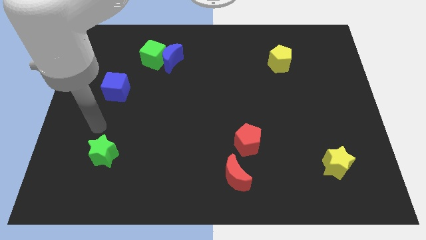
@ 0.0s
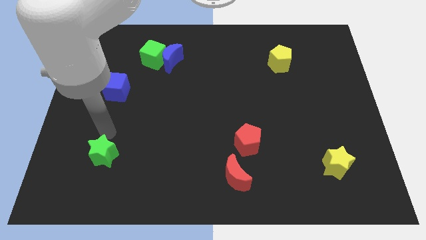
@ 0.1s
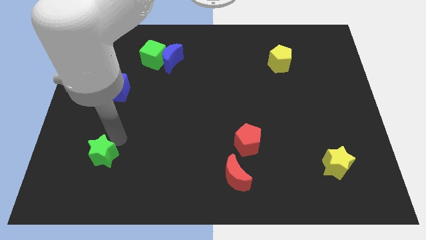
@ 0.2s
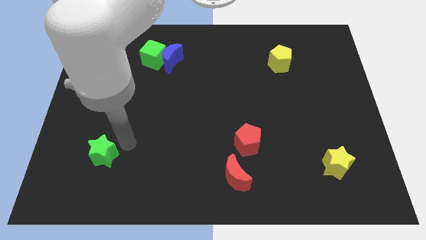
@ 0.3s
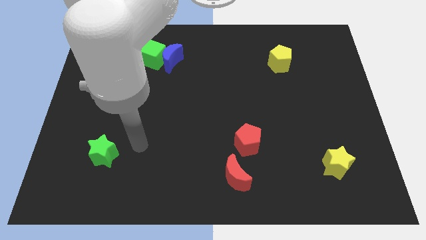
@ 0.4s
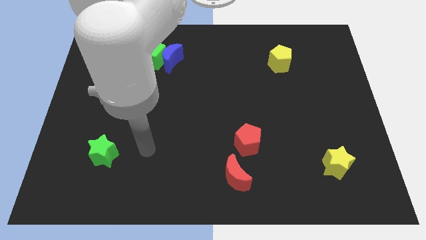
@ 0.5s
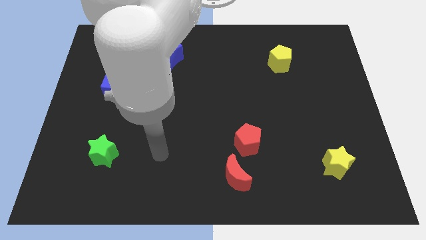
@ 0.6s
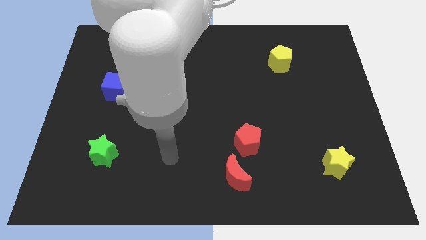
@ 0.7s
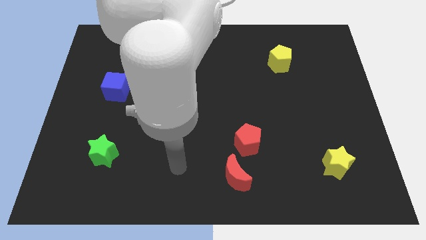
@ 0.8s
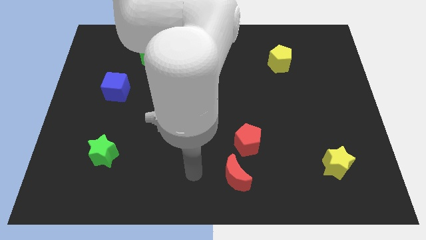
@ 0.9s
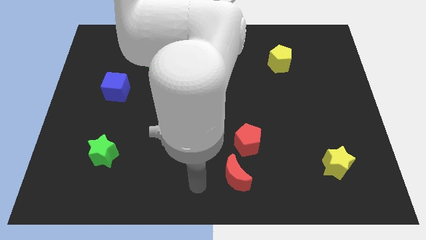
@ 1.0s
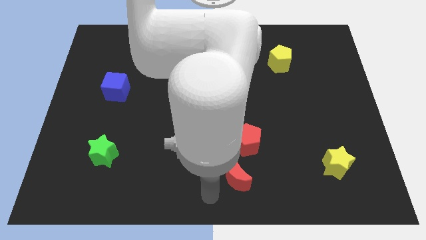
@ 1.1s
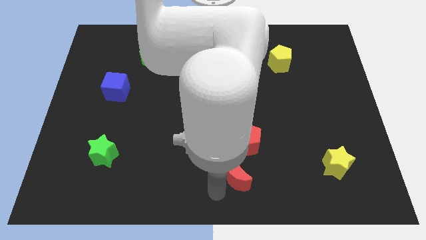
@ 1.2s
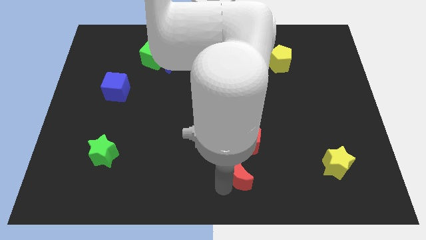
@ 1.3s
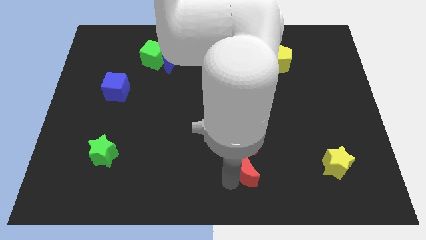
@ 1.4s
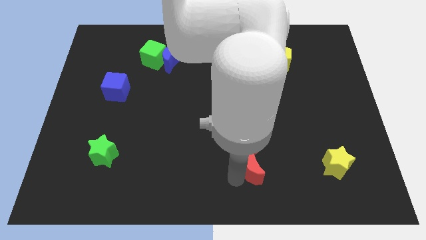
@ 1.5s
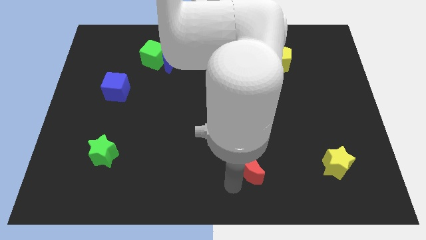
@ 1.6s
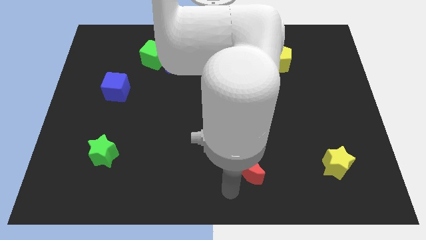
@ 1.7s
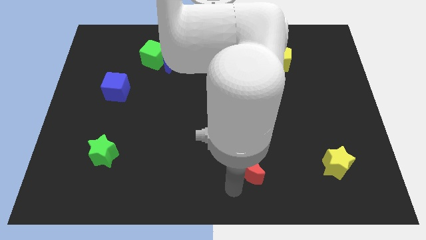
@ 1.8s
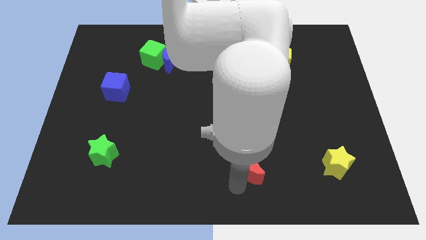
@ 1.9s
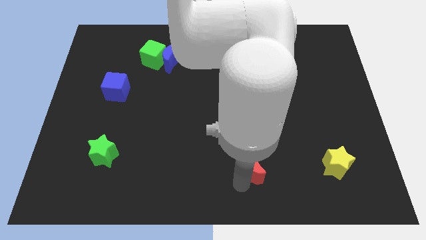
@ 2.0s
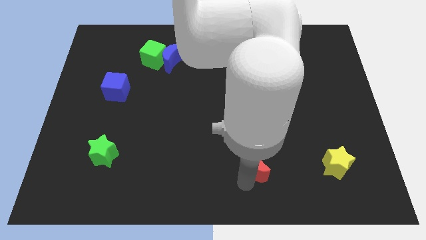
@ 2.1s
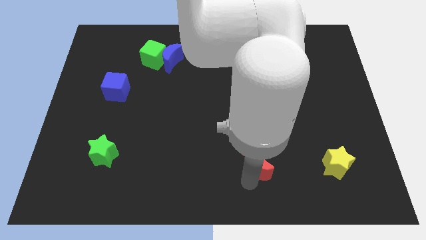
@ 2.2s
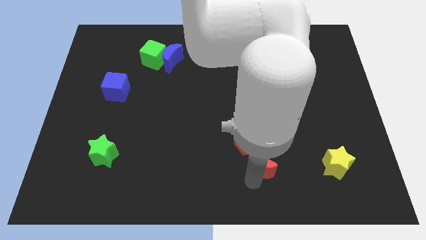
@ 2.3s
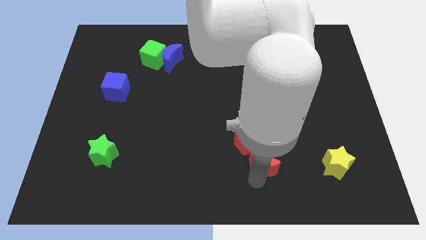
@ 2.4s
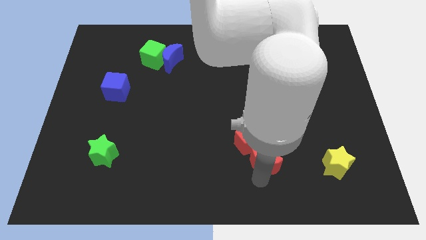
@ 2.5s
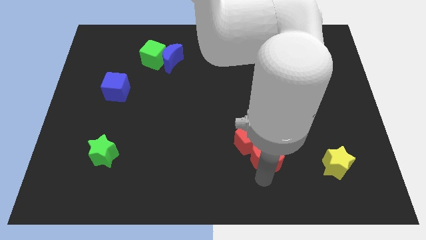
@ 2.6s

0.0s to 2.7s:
move the red moon a little diagonally up and to the right

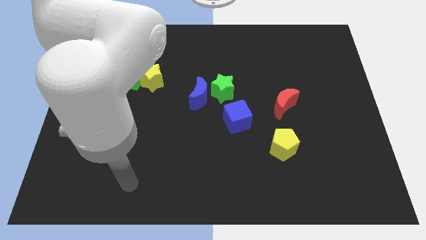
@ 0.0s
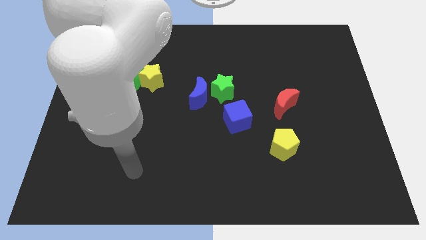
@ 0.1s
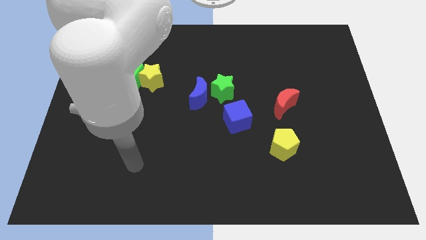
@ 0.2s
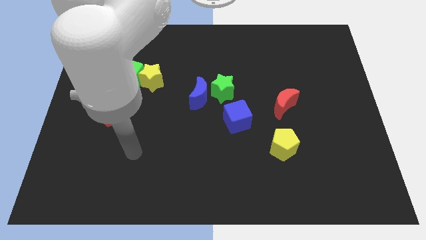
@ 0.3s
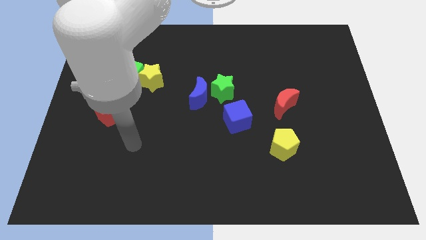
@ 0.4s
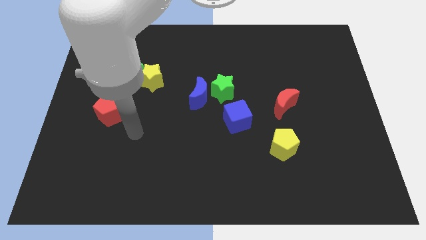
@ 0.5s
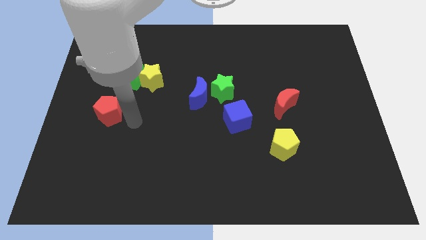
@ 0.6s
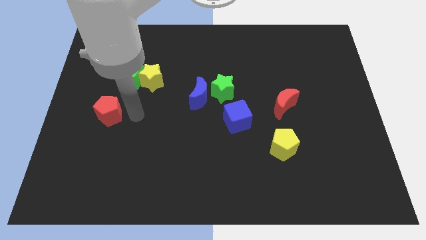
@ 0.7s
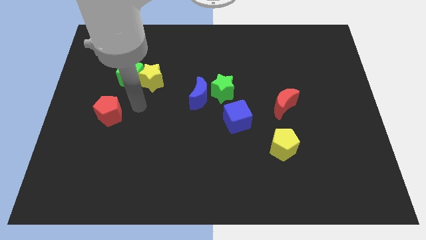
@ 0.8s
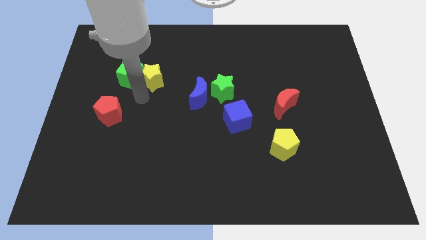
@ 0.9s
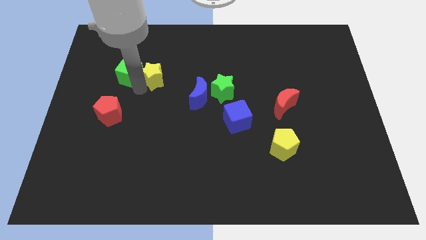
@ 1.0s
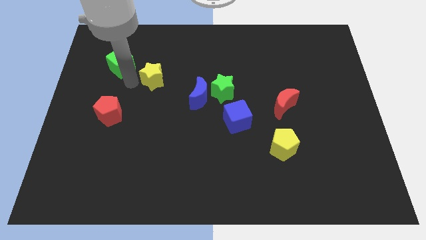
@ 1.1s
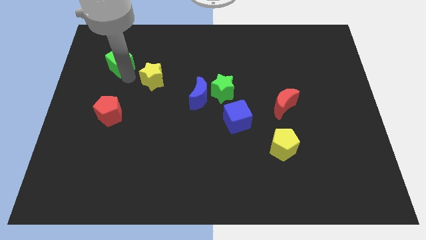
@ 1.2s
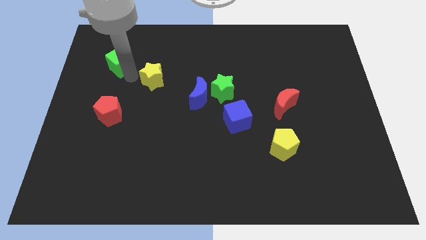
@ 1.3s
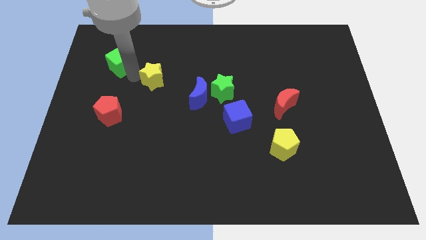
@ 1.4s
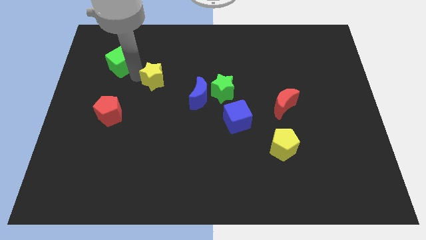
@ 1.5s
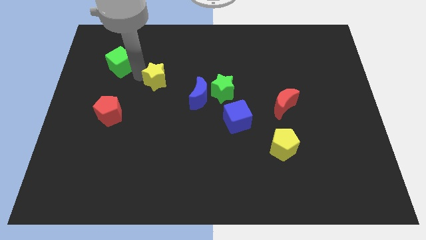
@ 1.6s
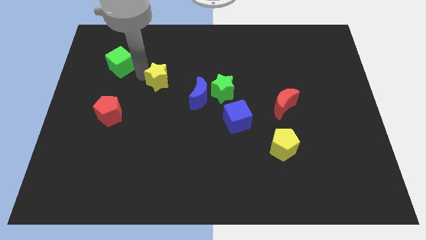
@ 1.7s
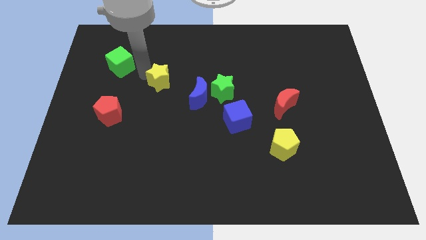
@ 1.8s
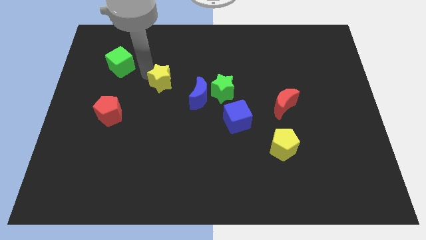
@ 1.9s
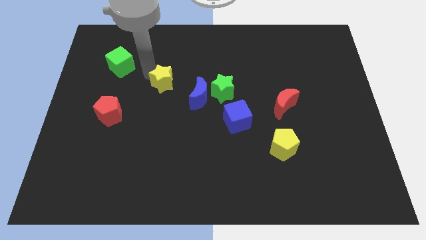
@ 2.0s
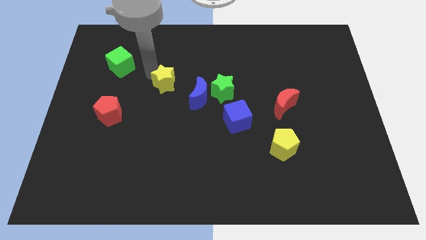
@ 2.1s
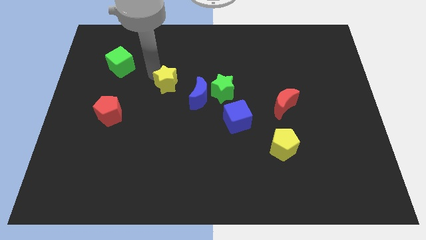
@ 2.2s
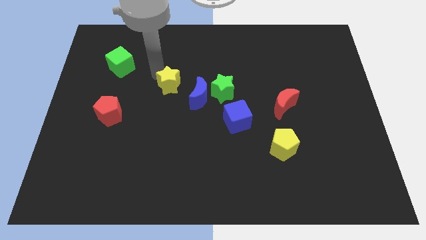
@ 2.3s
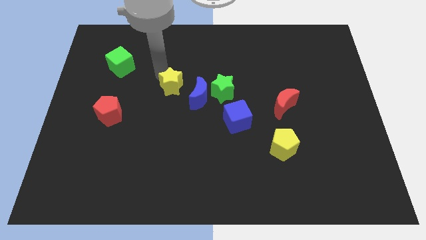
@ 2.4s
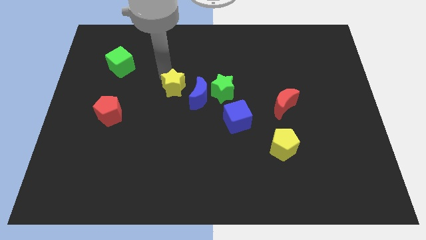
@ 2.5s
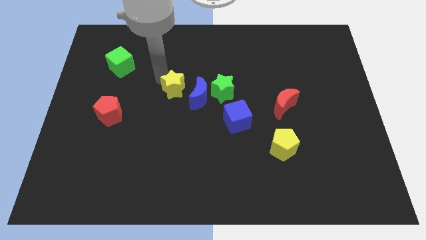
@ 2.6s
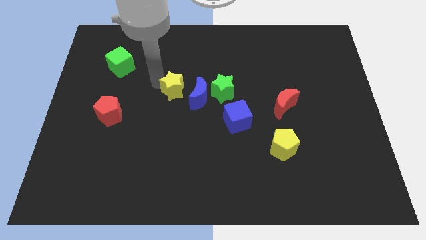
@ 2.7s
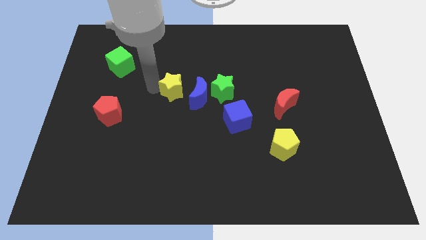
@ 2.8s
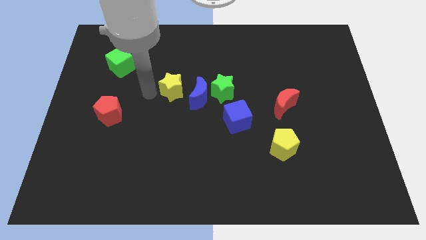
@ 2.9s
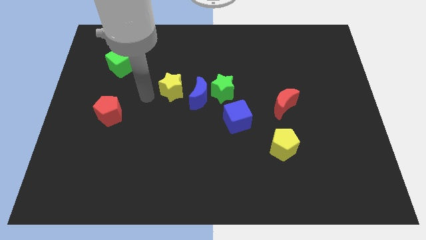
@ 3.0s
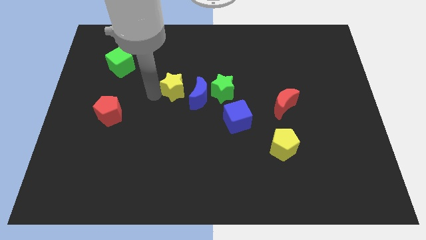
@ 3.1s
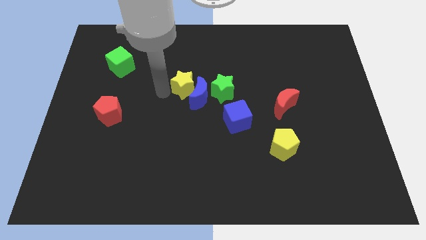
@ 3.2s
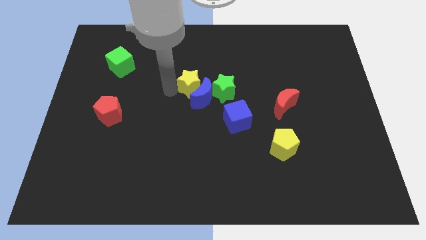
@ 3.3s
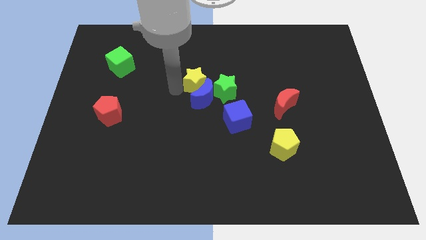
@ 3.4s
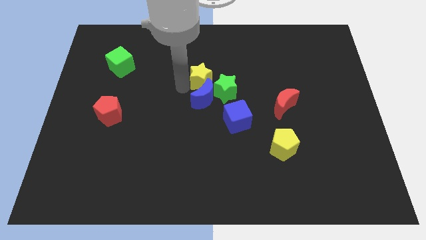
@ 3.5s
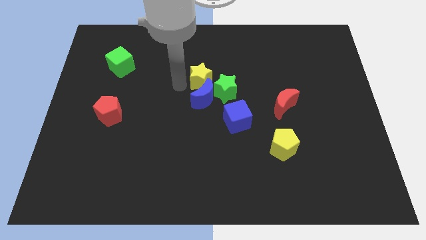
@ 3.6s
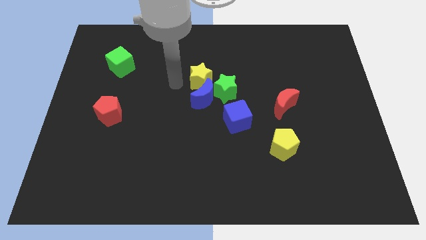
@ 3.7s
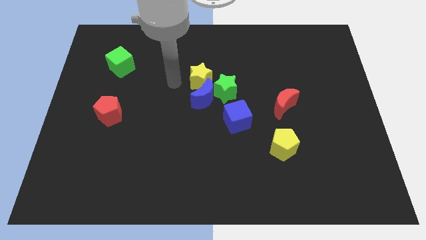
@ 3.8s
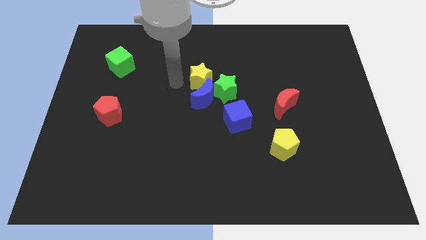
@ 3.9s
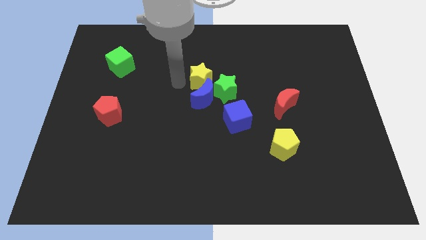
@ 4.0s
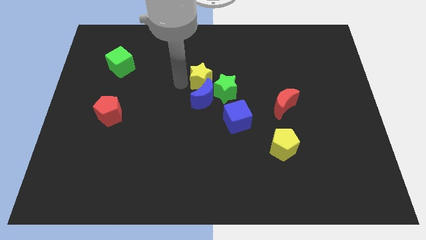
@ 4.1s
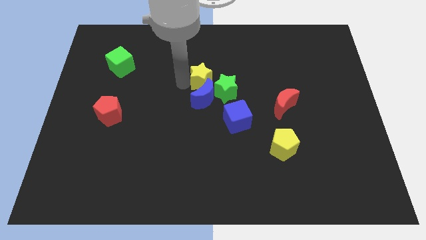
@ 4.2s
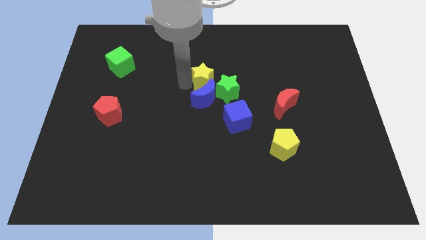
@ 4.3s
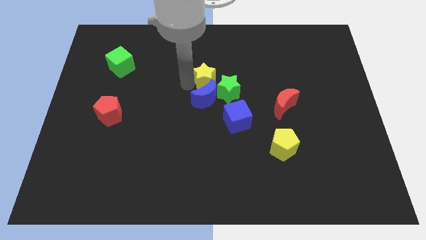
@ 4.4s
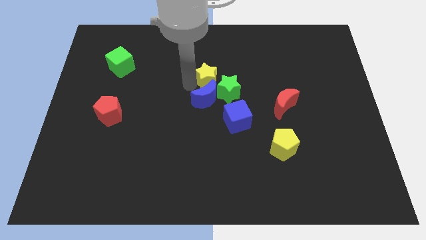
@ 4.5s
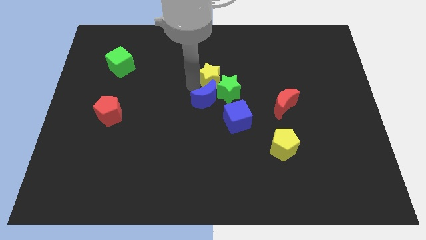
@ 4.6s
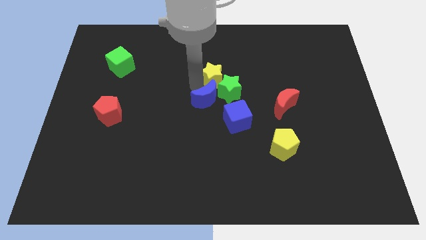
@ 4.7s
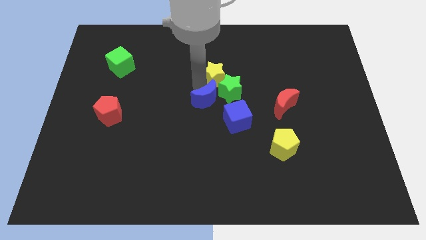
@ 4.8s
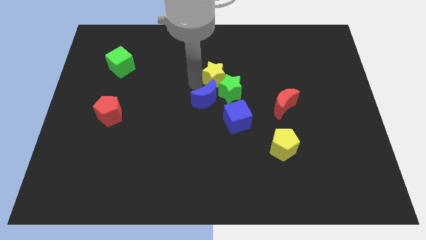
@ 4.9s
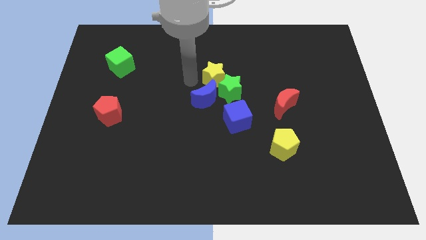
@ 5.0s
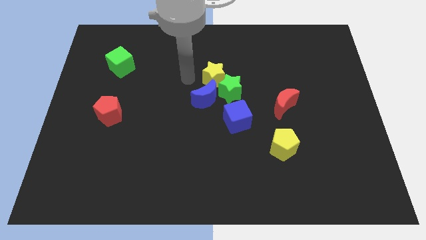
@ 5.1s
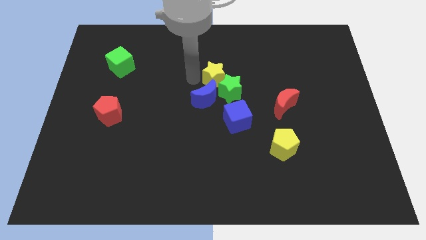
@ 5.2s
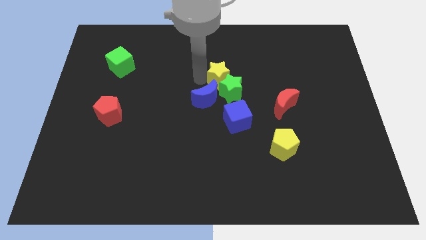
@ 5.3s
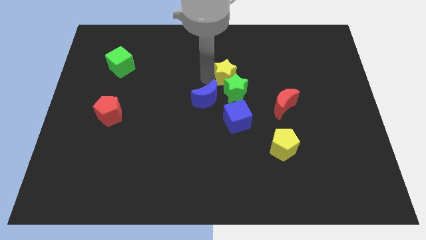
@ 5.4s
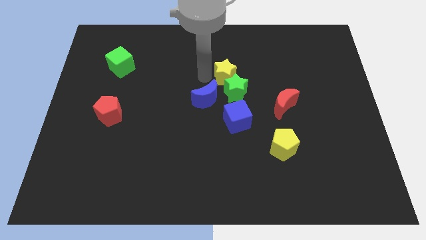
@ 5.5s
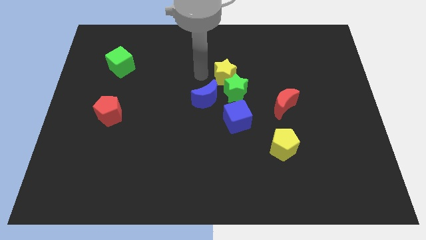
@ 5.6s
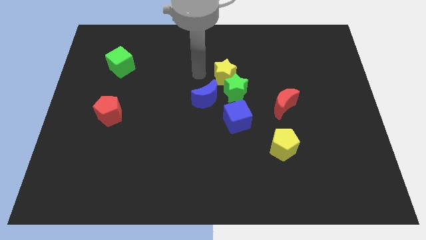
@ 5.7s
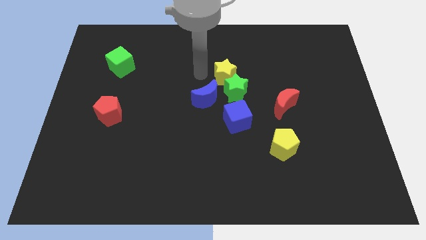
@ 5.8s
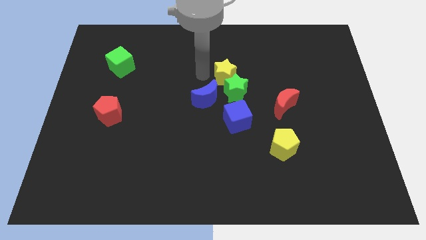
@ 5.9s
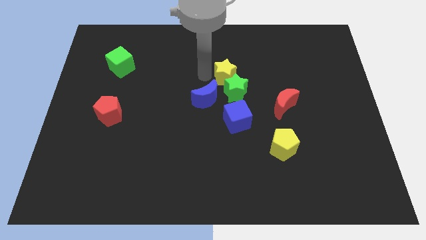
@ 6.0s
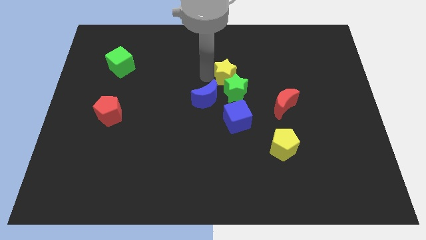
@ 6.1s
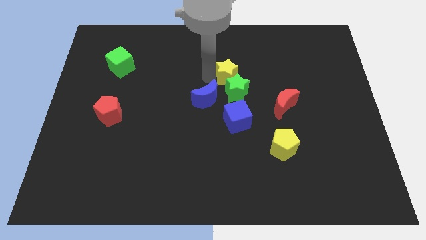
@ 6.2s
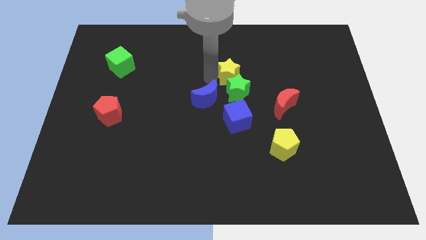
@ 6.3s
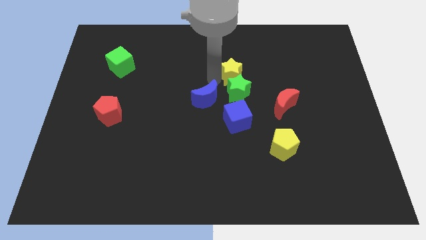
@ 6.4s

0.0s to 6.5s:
move the yellow star to the right
